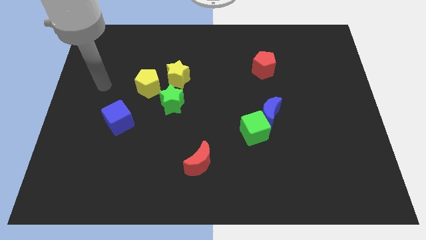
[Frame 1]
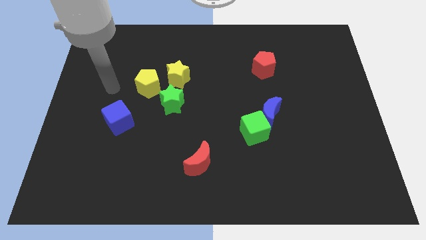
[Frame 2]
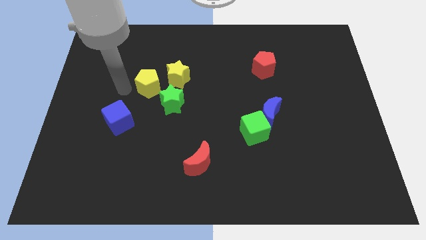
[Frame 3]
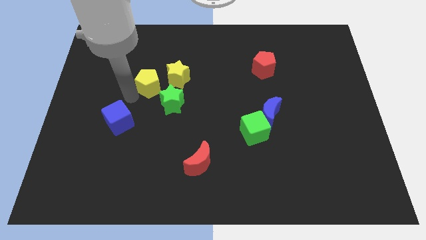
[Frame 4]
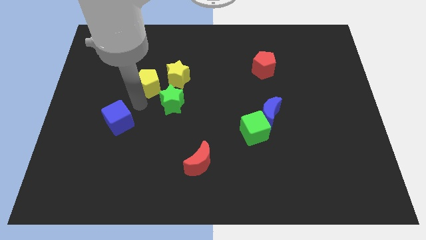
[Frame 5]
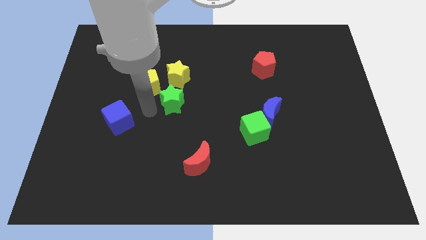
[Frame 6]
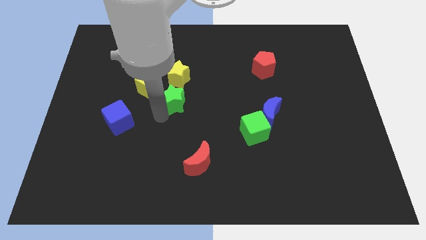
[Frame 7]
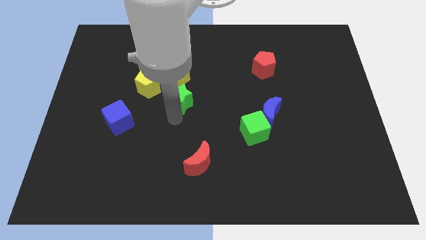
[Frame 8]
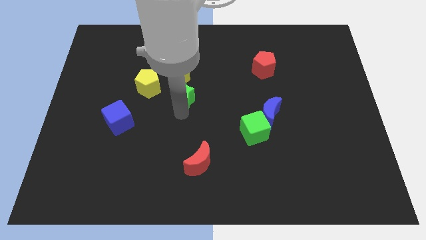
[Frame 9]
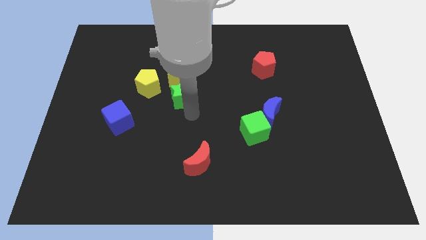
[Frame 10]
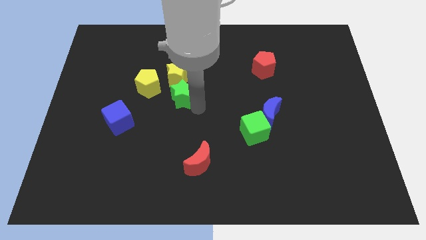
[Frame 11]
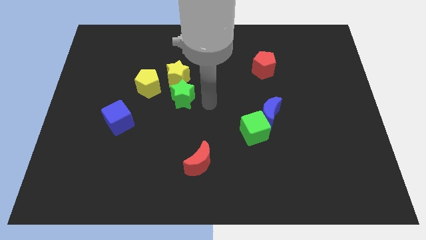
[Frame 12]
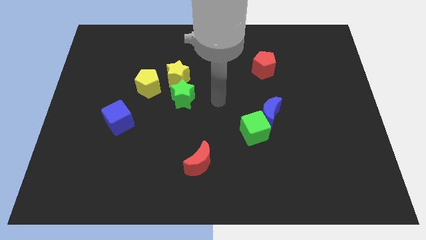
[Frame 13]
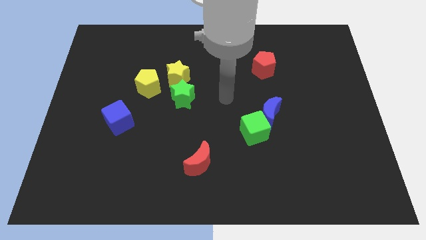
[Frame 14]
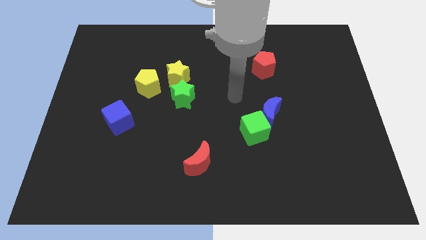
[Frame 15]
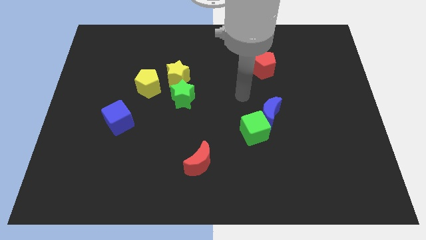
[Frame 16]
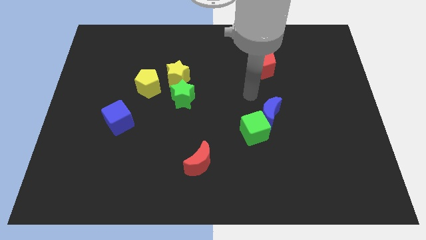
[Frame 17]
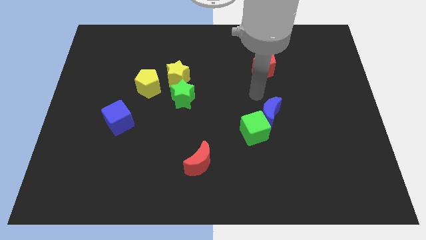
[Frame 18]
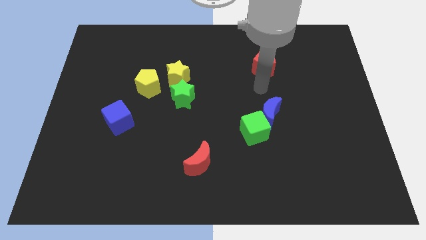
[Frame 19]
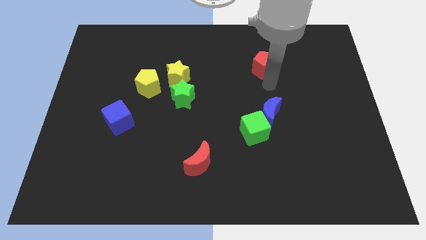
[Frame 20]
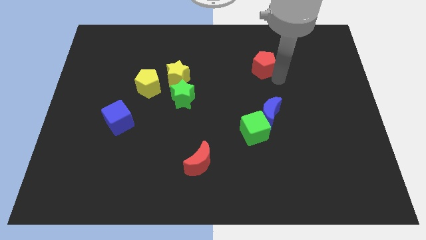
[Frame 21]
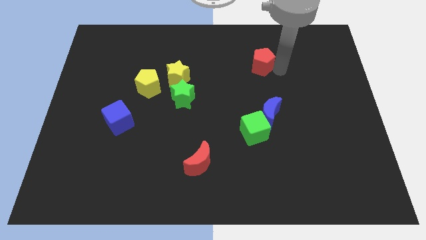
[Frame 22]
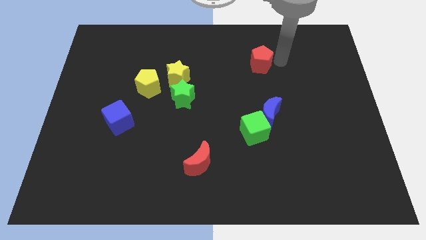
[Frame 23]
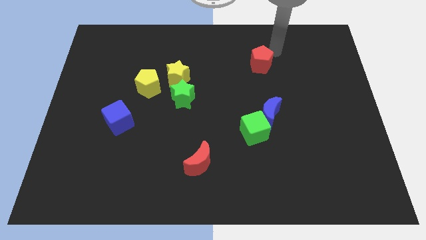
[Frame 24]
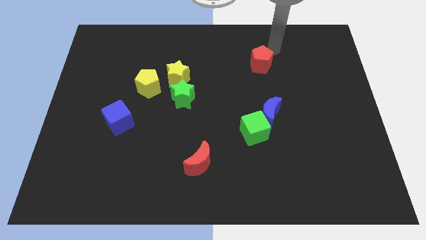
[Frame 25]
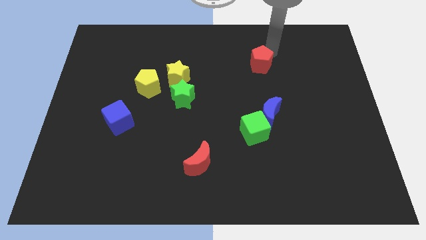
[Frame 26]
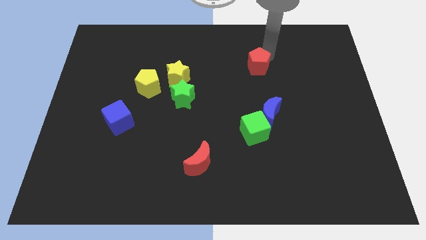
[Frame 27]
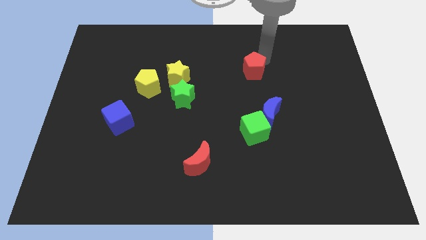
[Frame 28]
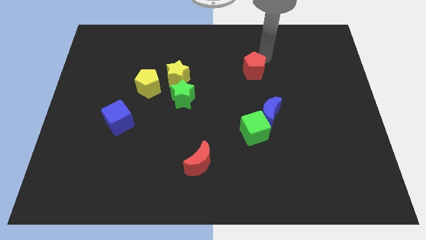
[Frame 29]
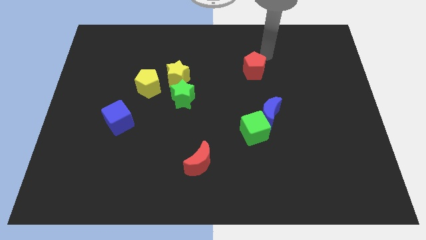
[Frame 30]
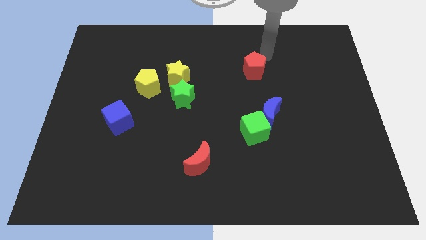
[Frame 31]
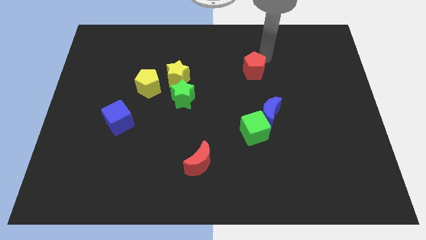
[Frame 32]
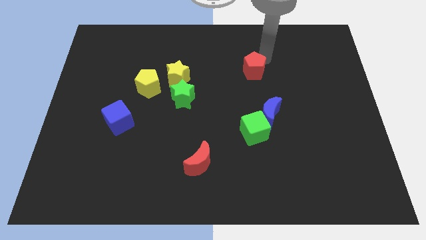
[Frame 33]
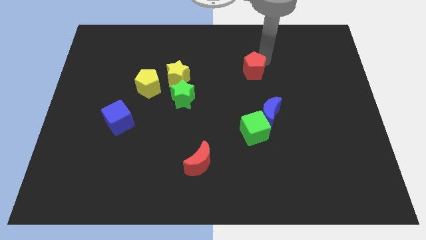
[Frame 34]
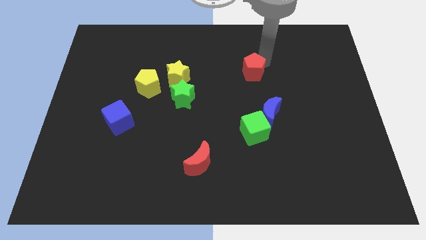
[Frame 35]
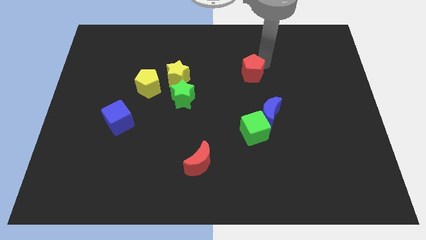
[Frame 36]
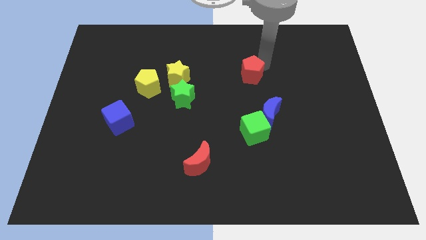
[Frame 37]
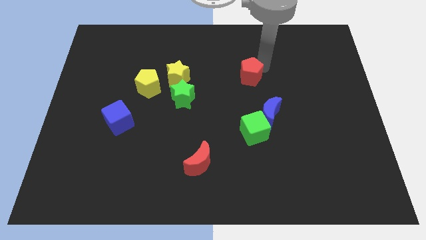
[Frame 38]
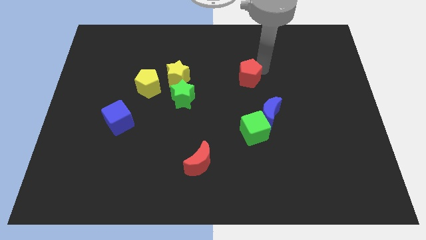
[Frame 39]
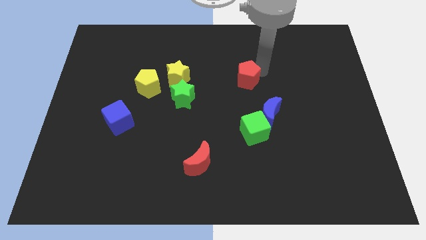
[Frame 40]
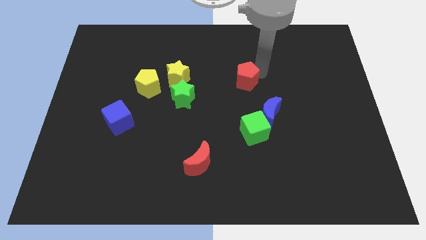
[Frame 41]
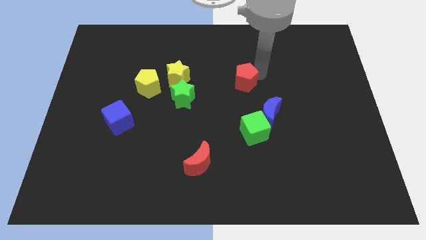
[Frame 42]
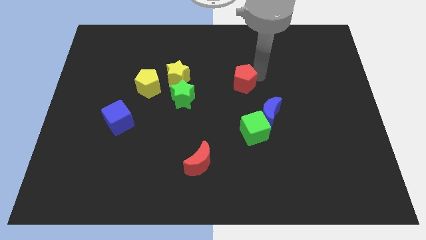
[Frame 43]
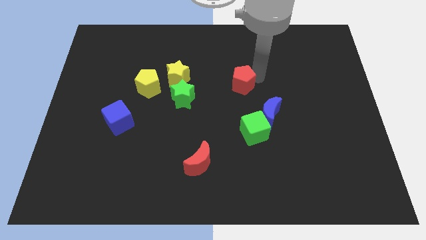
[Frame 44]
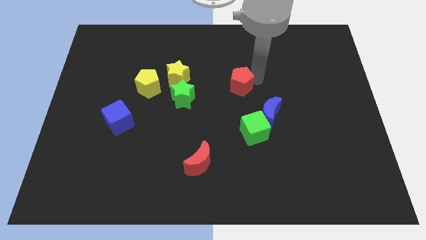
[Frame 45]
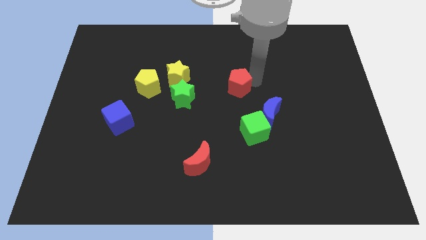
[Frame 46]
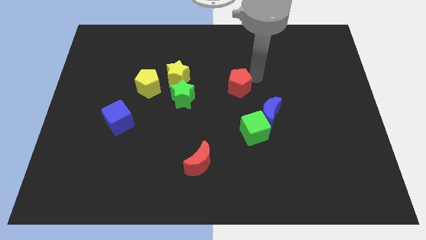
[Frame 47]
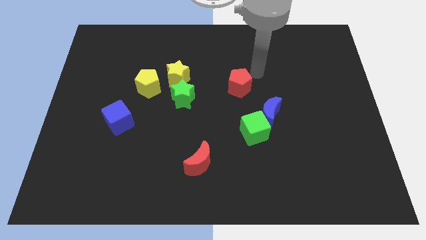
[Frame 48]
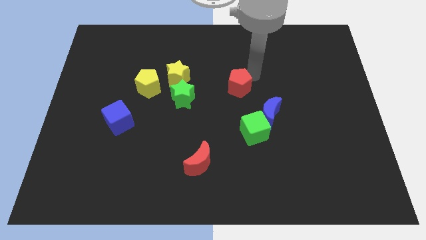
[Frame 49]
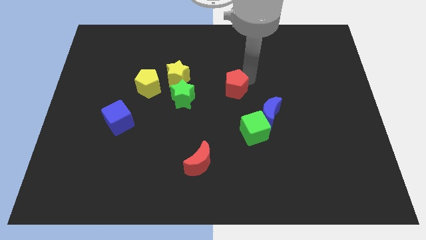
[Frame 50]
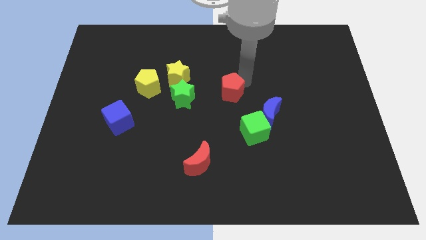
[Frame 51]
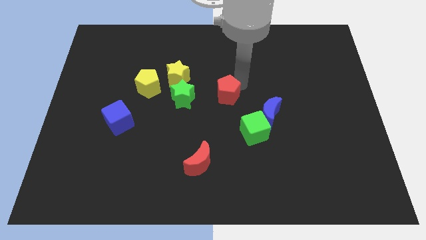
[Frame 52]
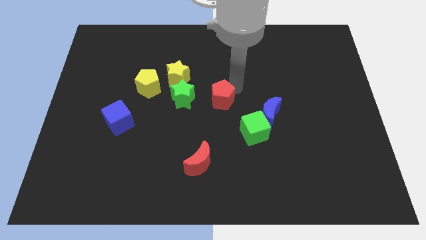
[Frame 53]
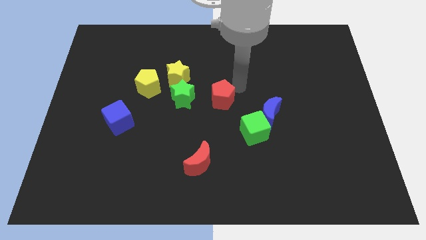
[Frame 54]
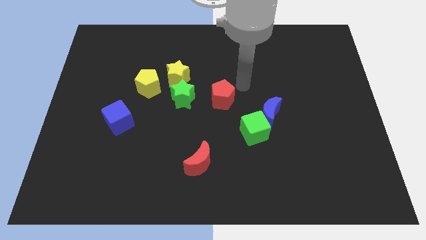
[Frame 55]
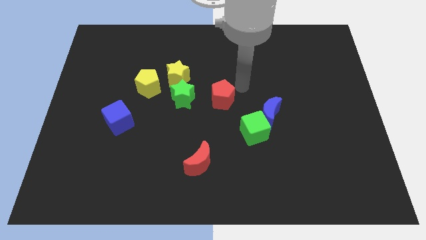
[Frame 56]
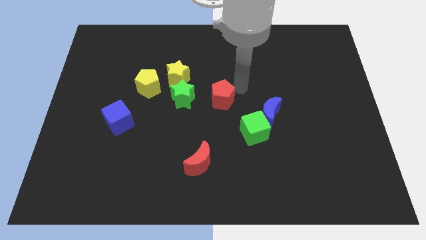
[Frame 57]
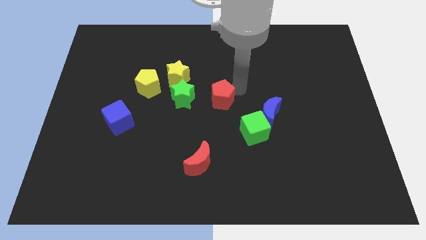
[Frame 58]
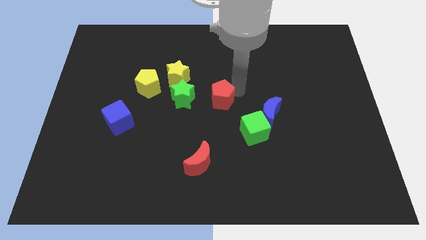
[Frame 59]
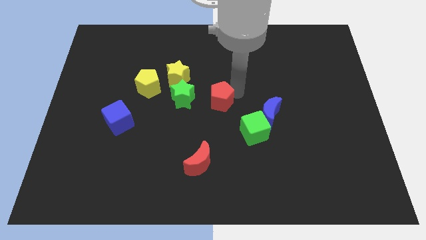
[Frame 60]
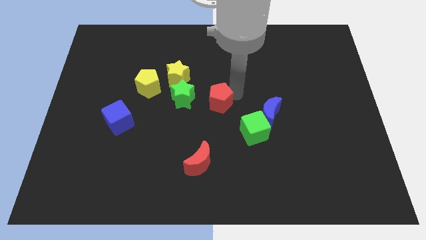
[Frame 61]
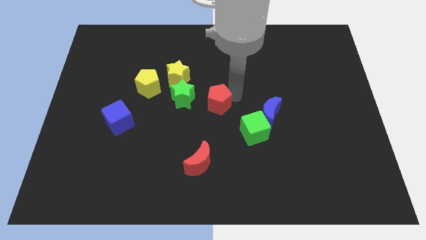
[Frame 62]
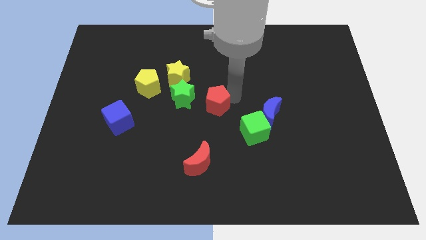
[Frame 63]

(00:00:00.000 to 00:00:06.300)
slide the red pentagon diagonally down and to the right of the green star

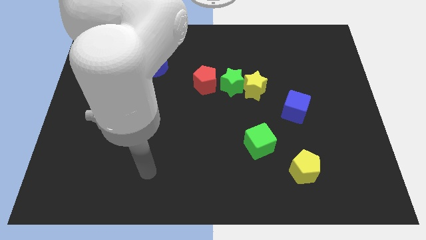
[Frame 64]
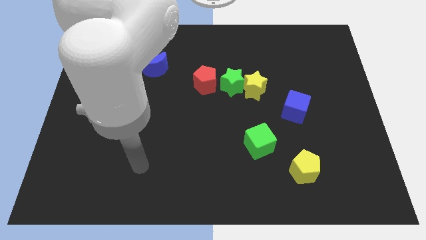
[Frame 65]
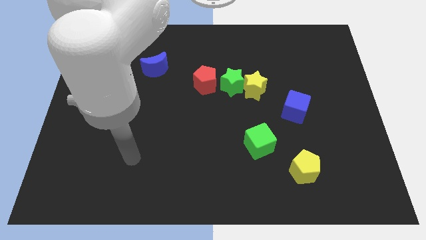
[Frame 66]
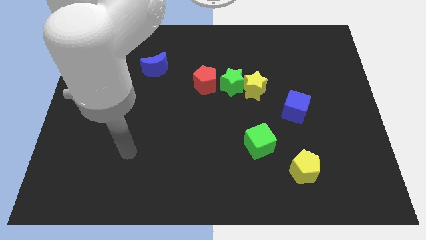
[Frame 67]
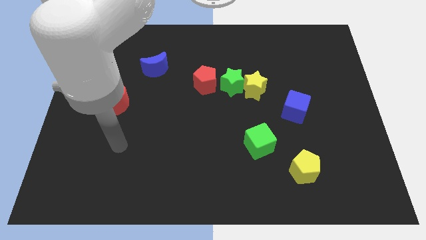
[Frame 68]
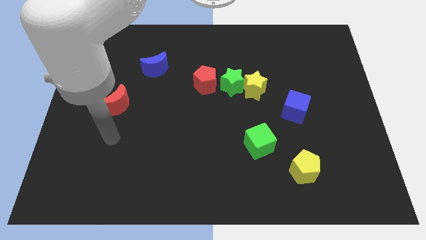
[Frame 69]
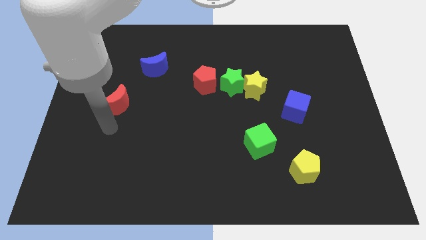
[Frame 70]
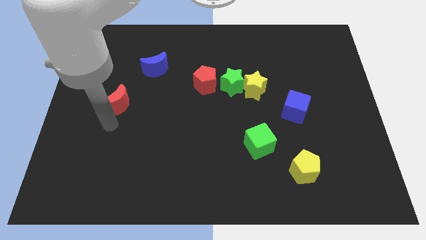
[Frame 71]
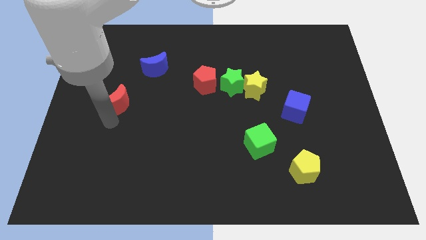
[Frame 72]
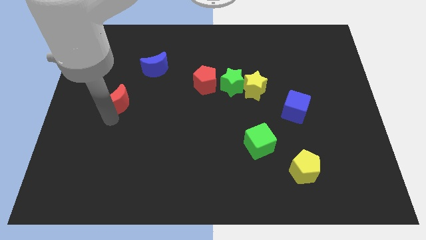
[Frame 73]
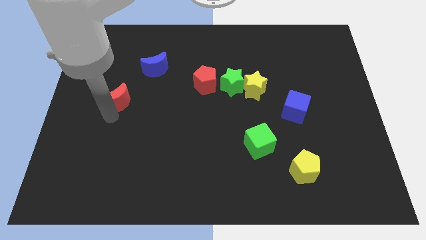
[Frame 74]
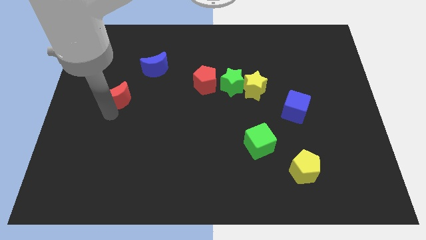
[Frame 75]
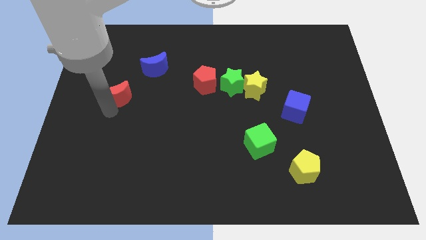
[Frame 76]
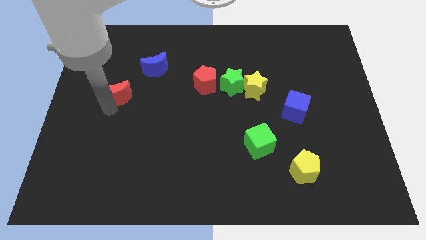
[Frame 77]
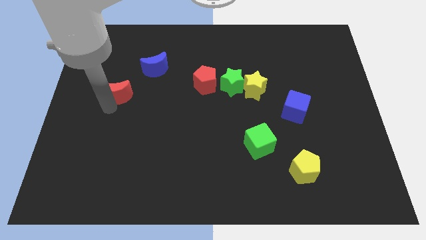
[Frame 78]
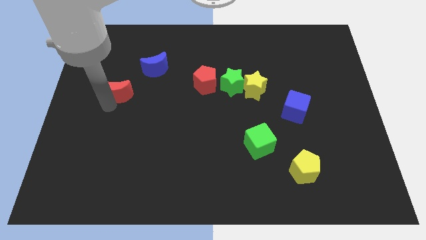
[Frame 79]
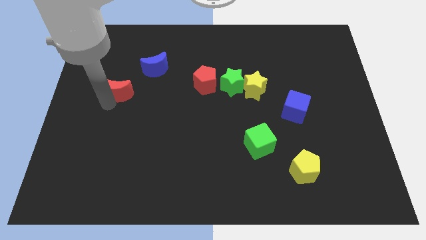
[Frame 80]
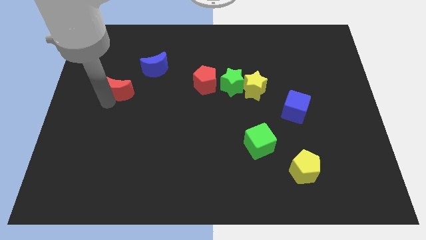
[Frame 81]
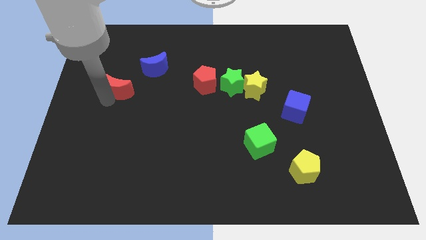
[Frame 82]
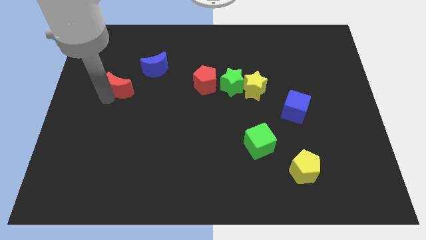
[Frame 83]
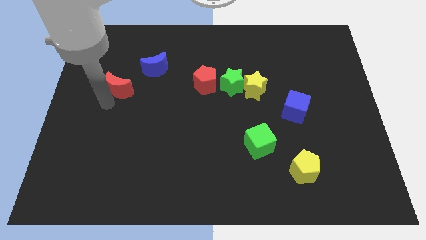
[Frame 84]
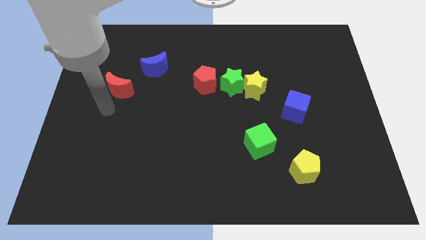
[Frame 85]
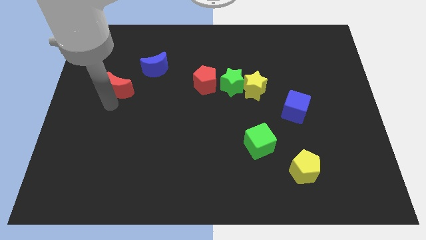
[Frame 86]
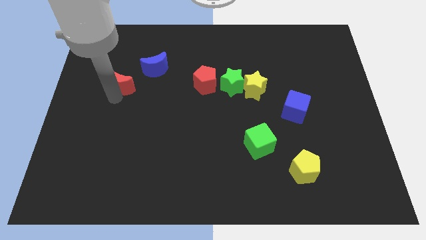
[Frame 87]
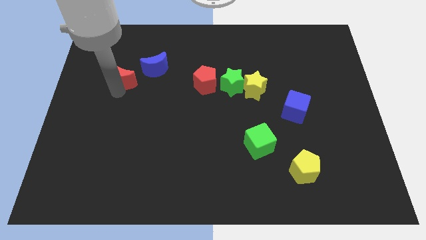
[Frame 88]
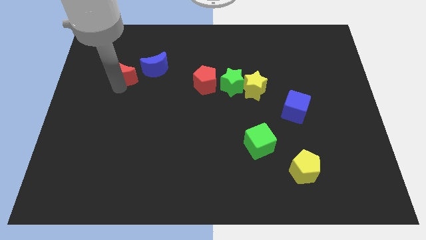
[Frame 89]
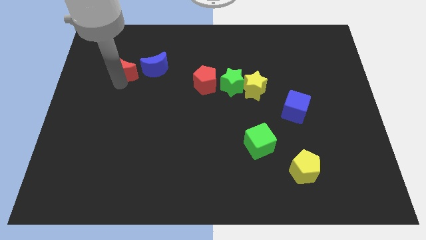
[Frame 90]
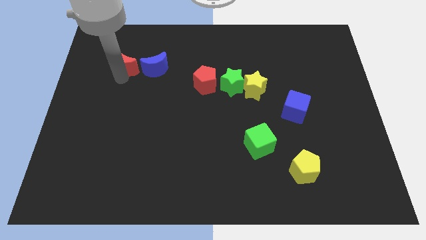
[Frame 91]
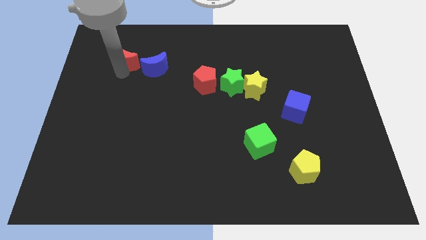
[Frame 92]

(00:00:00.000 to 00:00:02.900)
put the red moon to the top left of the blue moon
